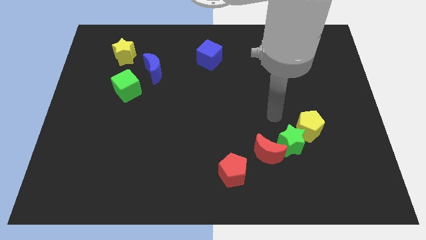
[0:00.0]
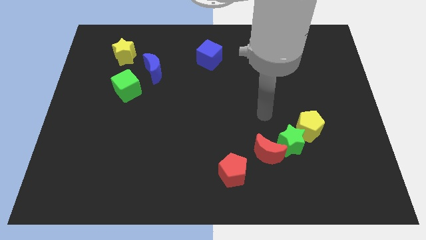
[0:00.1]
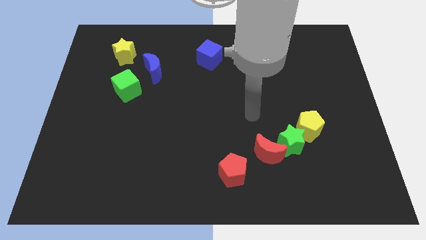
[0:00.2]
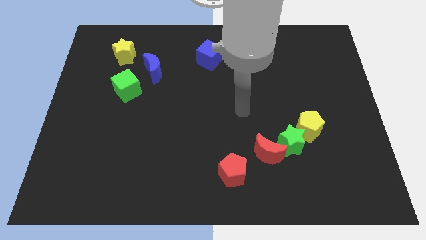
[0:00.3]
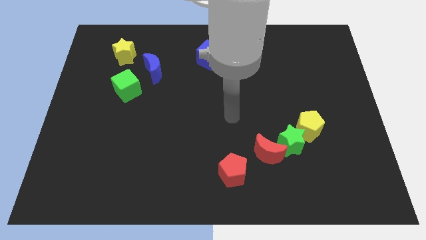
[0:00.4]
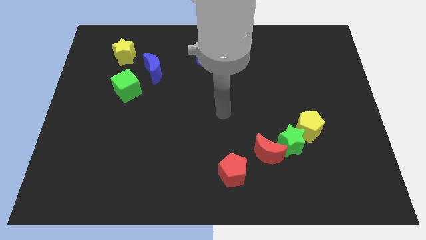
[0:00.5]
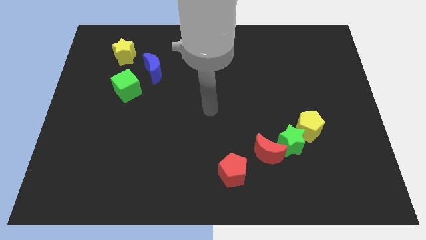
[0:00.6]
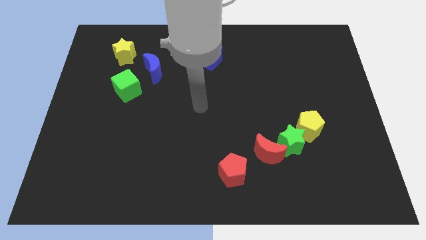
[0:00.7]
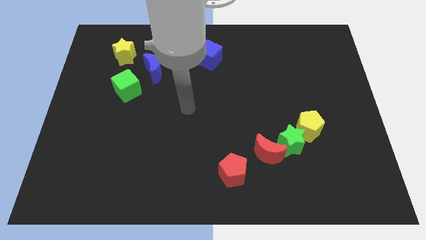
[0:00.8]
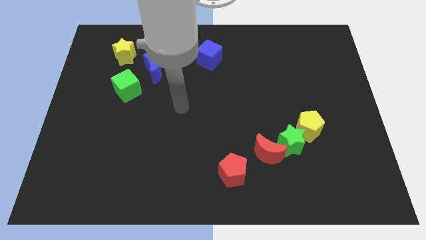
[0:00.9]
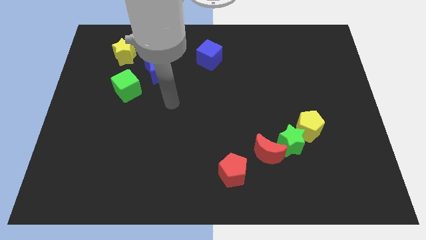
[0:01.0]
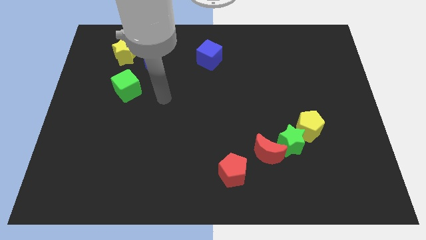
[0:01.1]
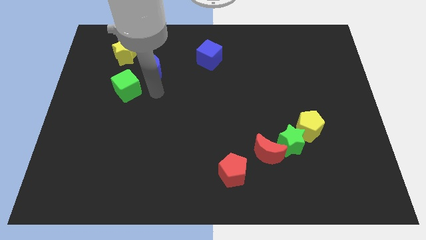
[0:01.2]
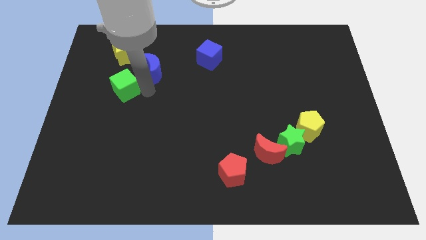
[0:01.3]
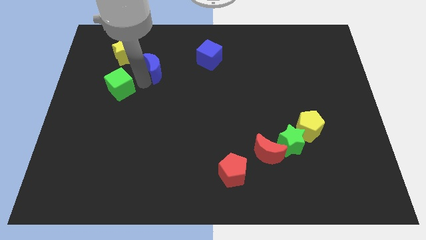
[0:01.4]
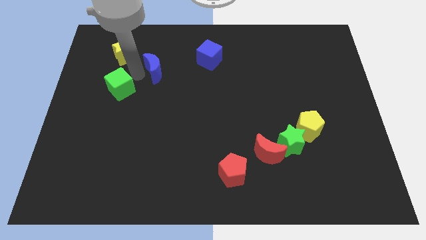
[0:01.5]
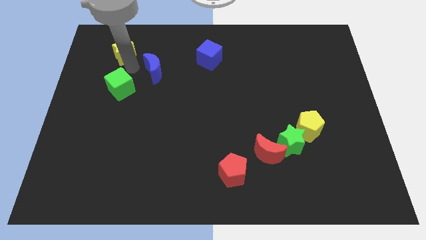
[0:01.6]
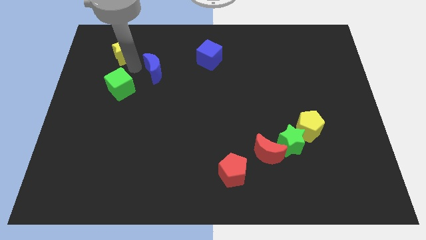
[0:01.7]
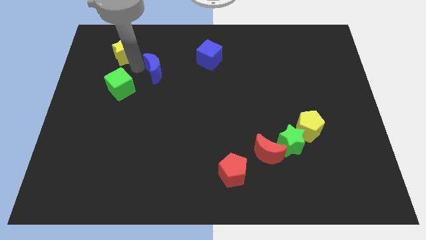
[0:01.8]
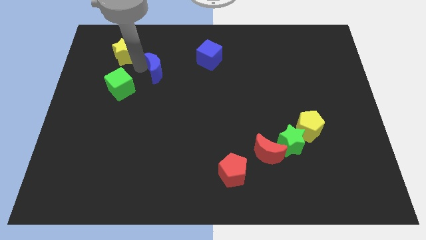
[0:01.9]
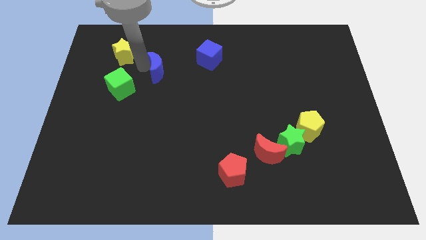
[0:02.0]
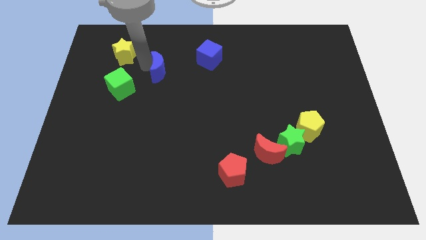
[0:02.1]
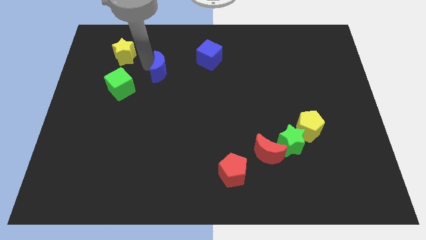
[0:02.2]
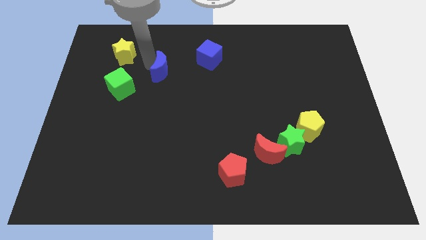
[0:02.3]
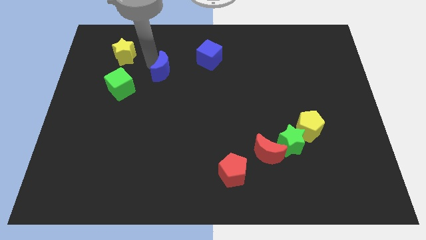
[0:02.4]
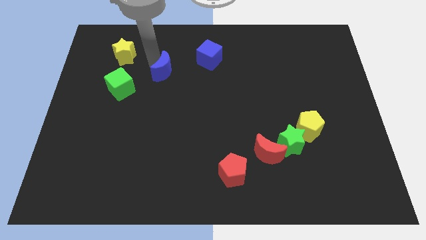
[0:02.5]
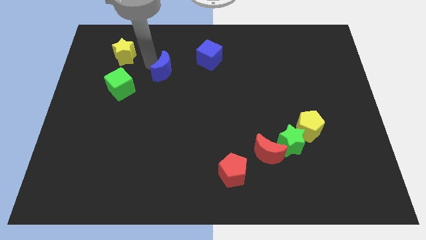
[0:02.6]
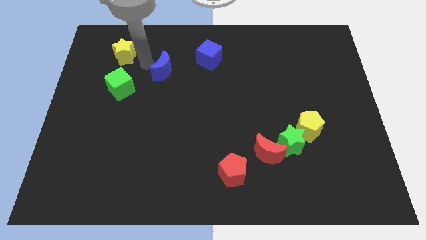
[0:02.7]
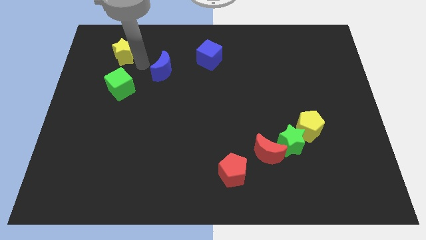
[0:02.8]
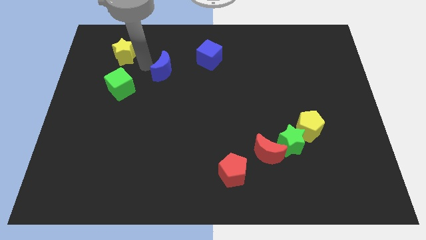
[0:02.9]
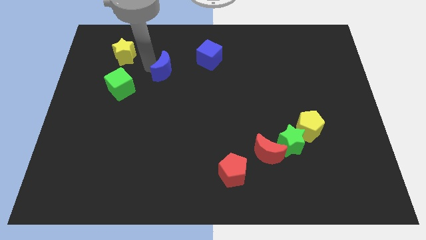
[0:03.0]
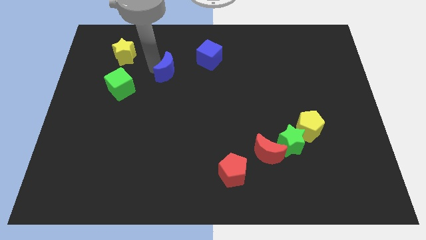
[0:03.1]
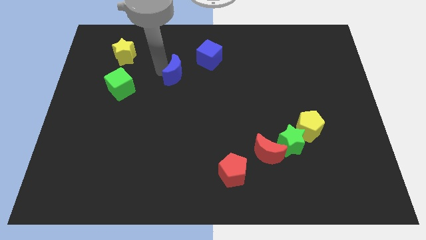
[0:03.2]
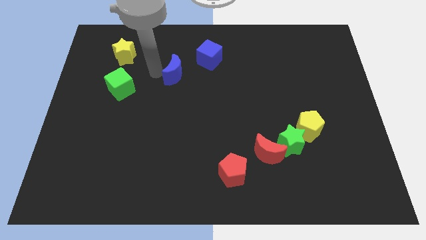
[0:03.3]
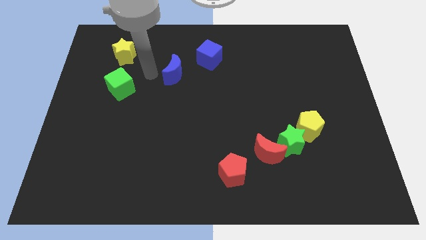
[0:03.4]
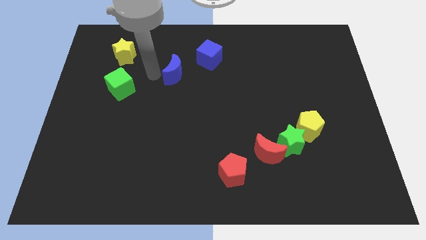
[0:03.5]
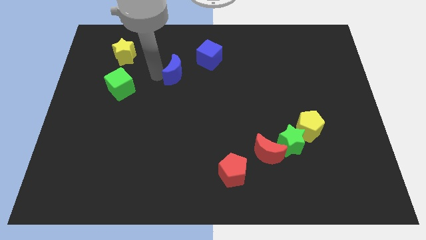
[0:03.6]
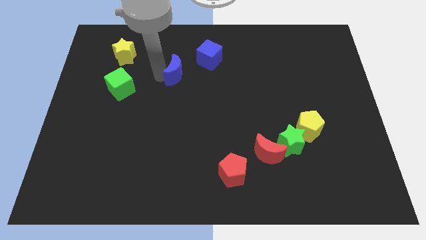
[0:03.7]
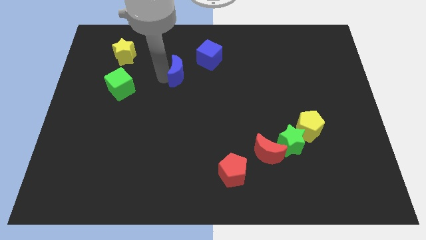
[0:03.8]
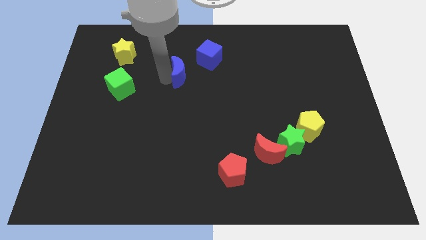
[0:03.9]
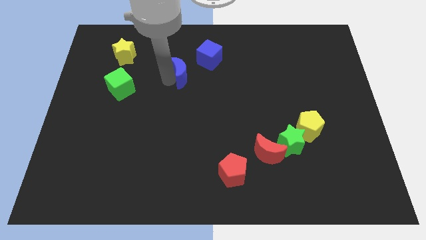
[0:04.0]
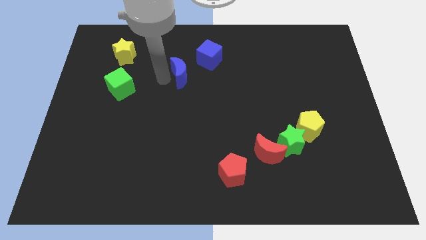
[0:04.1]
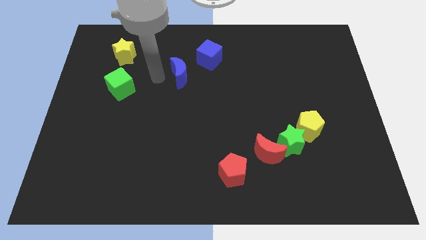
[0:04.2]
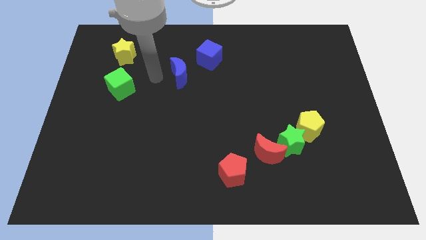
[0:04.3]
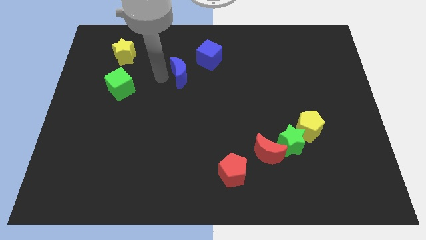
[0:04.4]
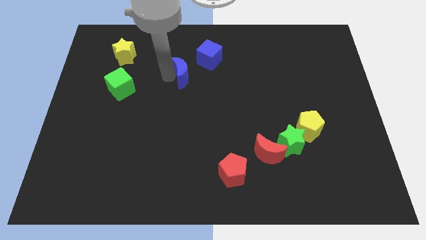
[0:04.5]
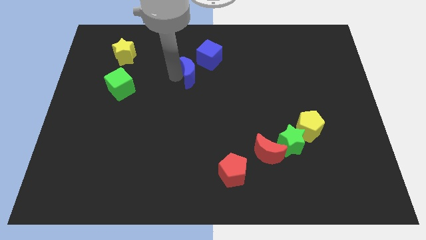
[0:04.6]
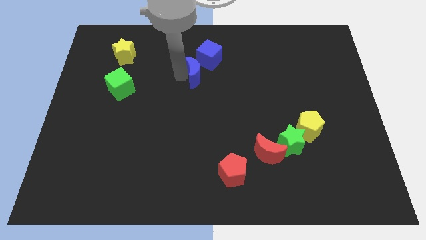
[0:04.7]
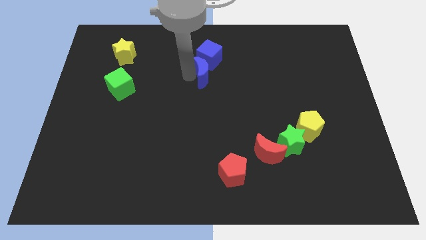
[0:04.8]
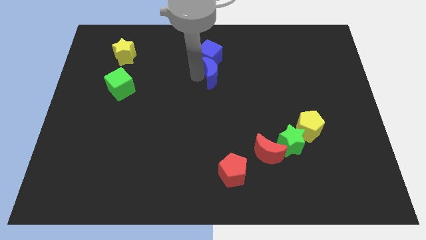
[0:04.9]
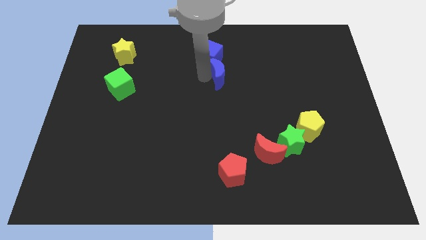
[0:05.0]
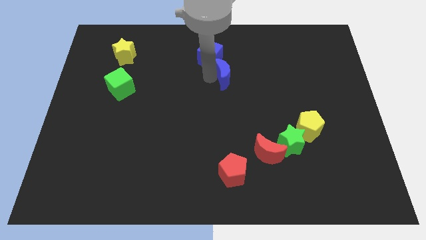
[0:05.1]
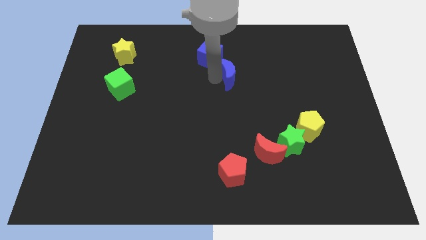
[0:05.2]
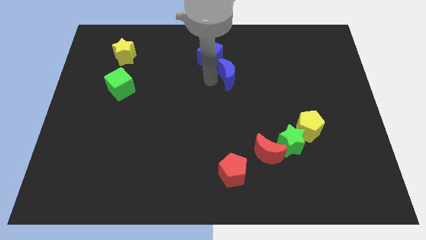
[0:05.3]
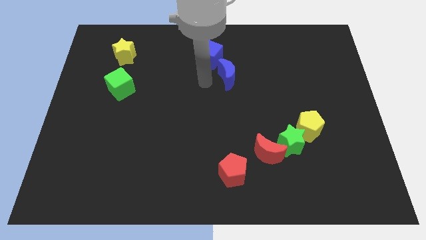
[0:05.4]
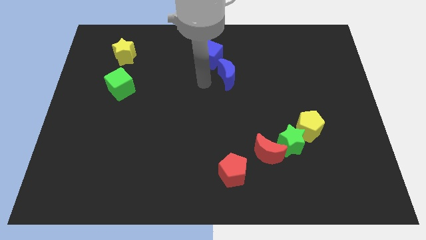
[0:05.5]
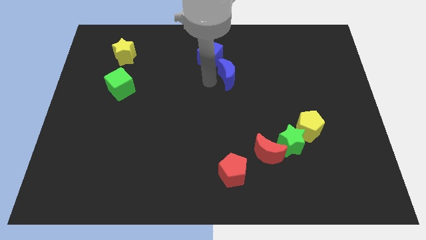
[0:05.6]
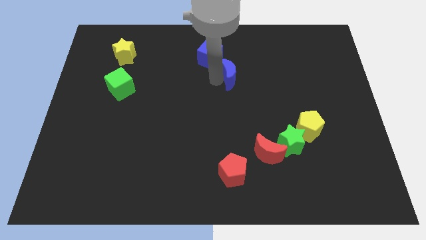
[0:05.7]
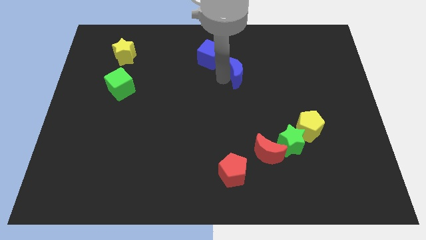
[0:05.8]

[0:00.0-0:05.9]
slide the blue moon to the right

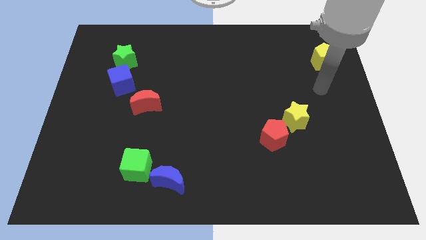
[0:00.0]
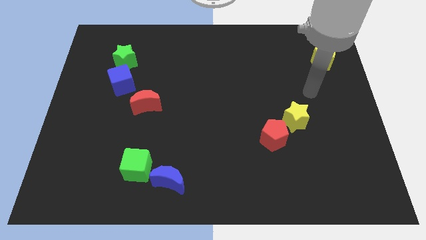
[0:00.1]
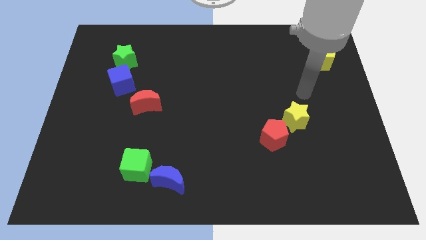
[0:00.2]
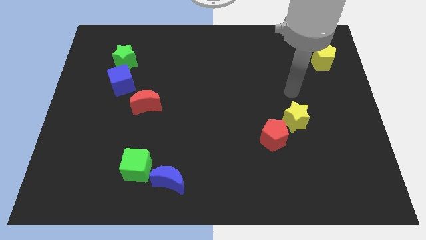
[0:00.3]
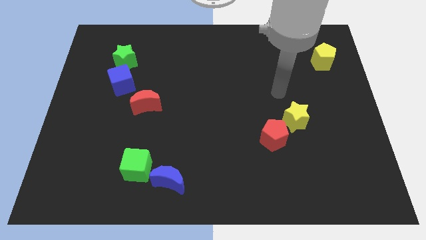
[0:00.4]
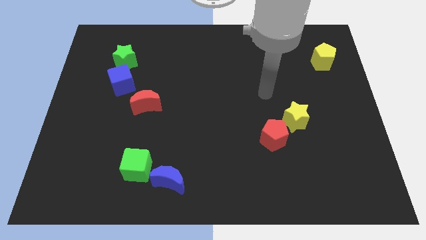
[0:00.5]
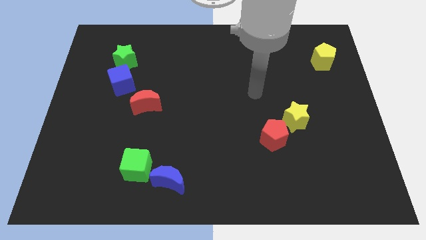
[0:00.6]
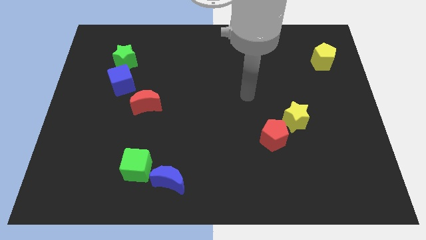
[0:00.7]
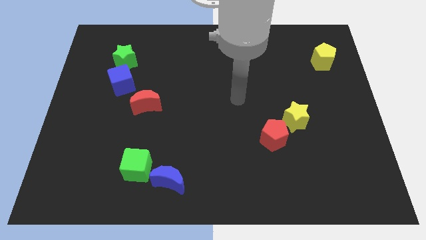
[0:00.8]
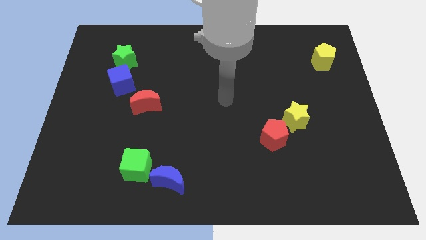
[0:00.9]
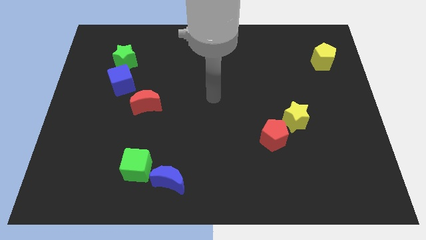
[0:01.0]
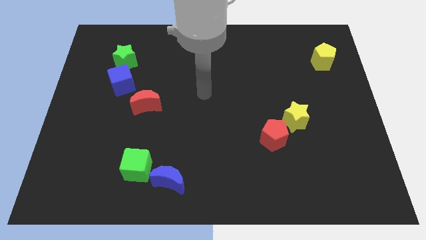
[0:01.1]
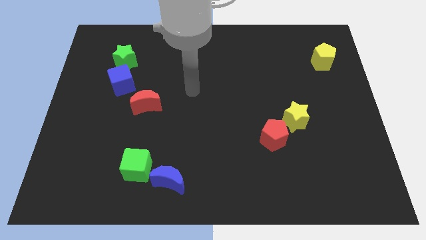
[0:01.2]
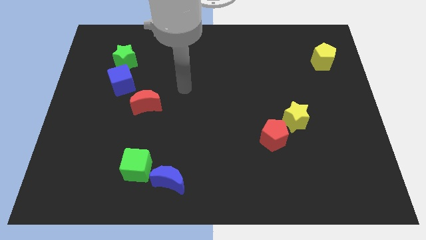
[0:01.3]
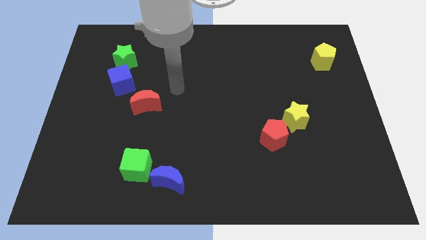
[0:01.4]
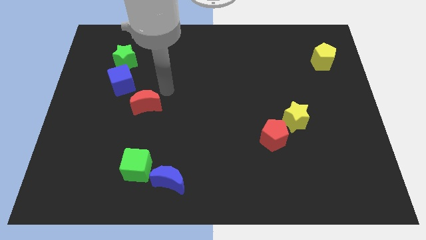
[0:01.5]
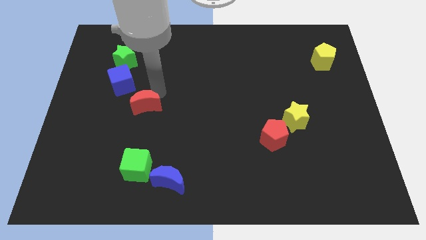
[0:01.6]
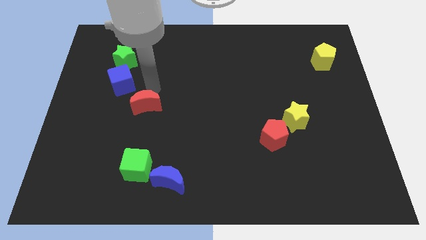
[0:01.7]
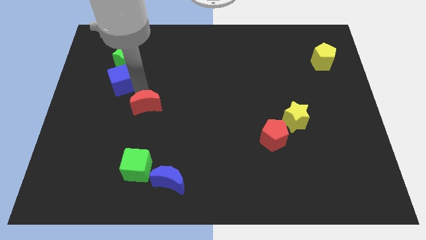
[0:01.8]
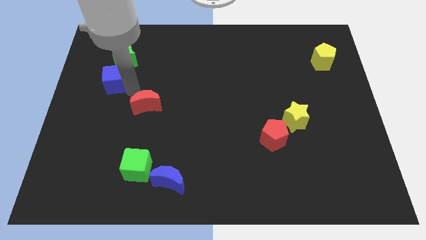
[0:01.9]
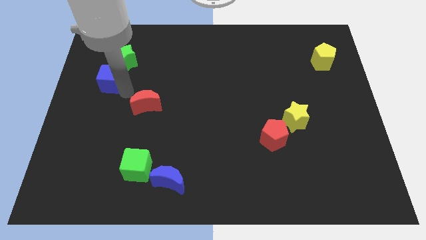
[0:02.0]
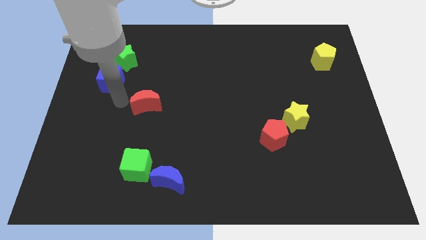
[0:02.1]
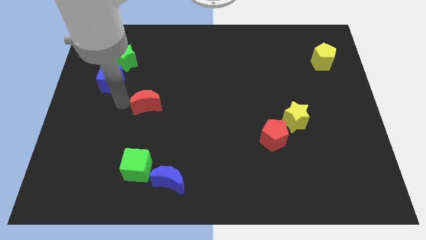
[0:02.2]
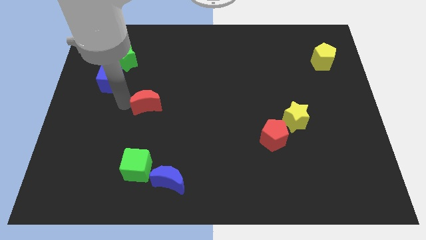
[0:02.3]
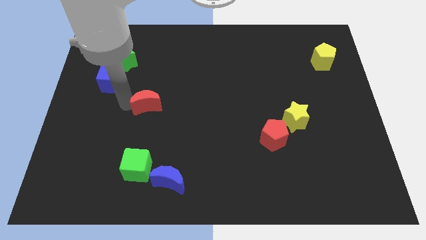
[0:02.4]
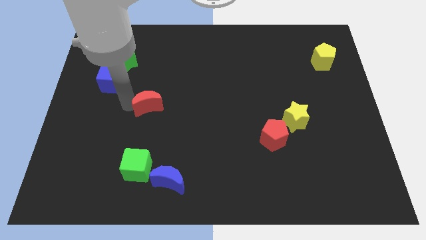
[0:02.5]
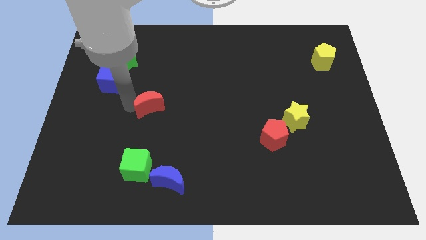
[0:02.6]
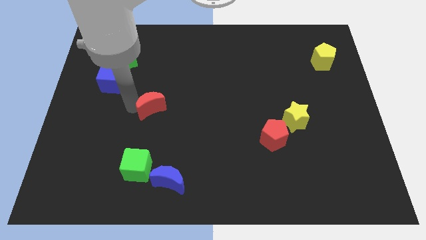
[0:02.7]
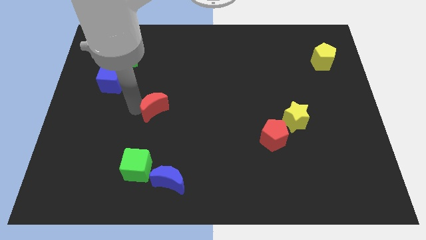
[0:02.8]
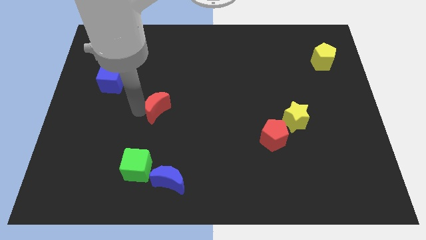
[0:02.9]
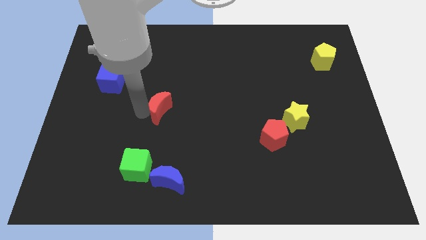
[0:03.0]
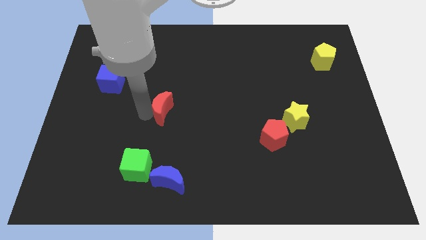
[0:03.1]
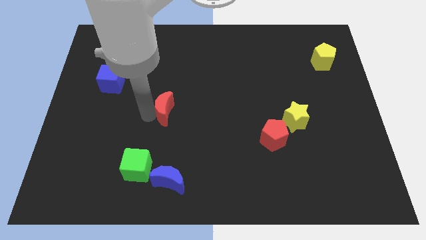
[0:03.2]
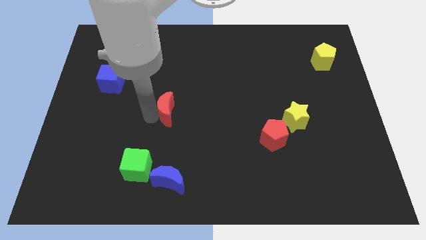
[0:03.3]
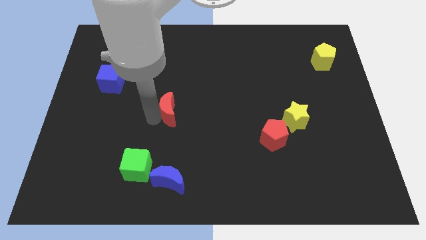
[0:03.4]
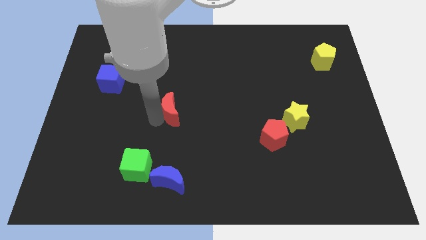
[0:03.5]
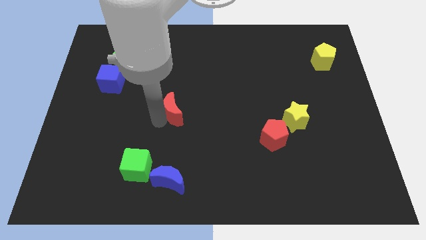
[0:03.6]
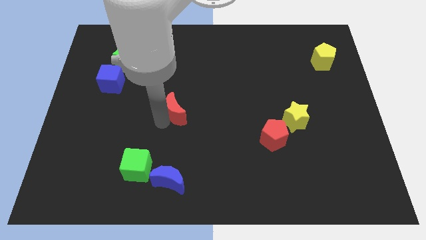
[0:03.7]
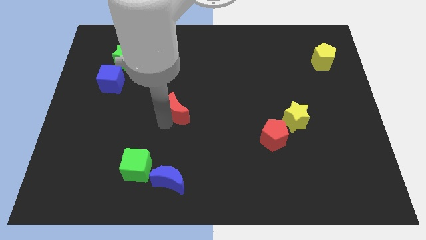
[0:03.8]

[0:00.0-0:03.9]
slightly move the red moon to the right
